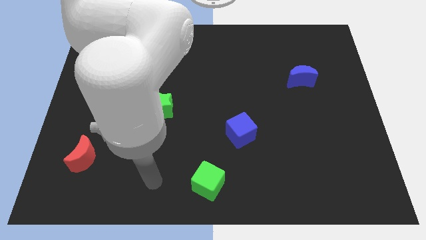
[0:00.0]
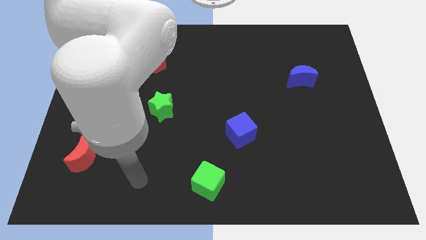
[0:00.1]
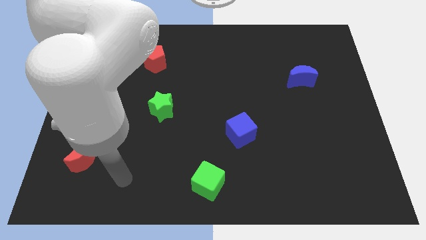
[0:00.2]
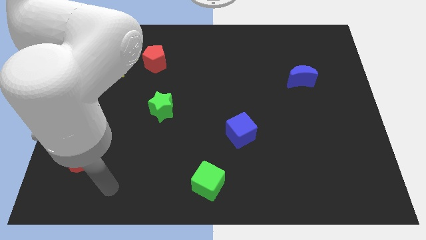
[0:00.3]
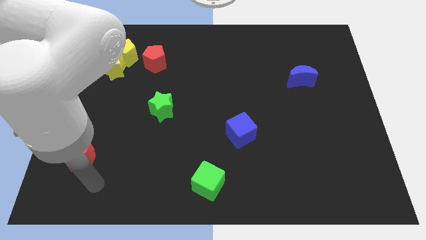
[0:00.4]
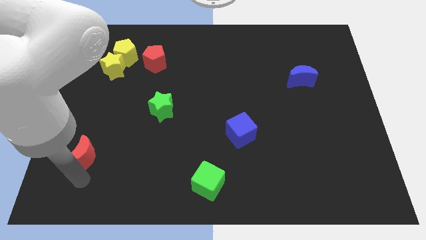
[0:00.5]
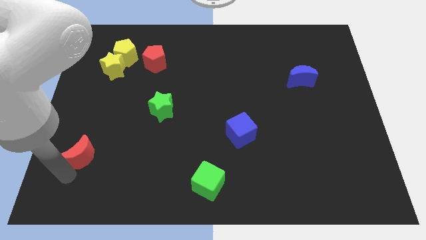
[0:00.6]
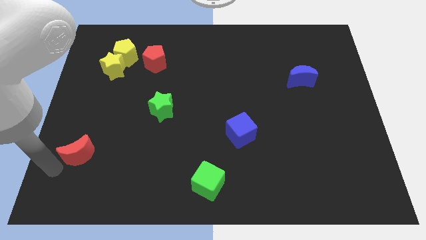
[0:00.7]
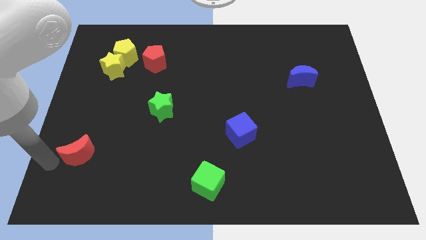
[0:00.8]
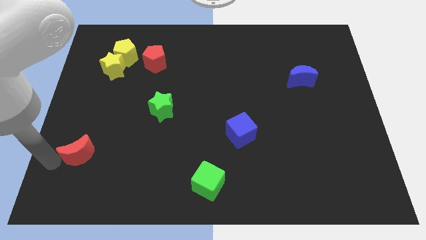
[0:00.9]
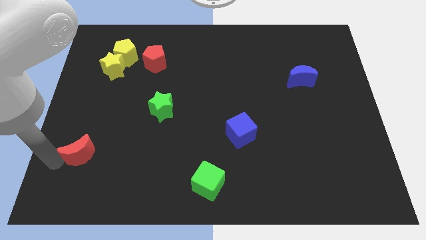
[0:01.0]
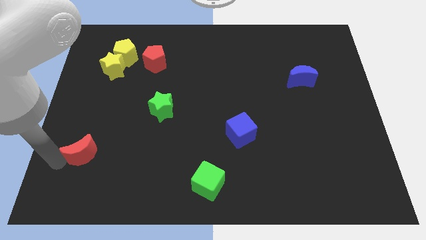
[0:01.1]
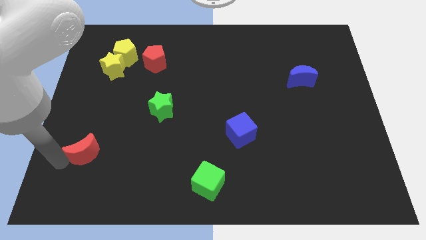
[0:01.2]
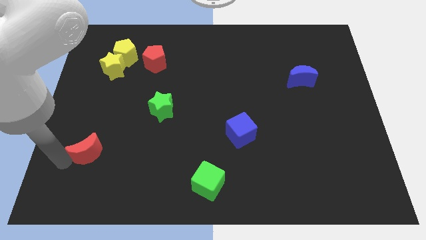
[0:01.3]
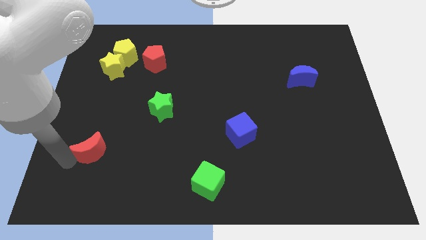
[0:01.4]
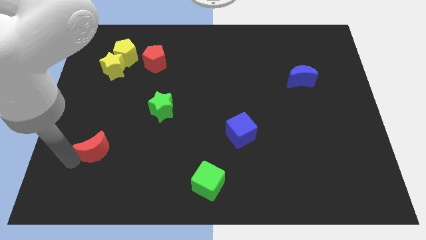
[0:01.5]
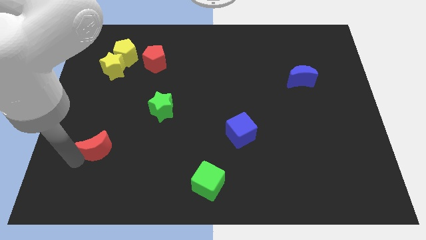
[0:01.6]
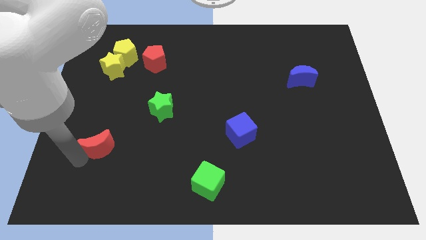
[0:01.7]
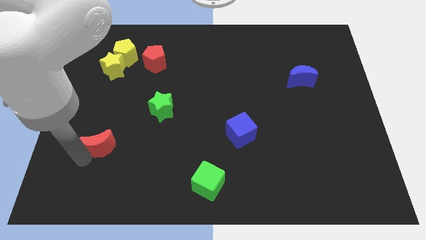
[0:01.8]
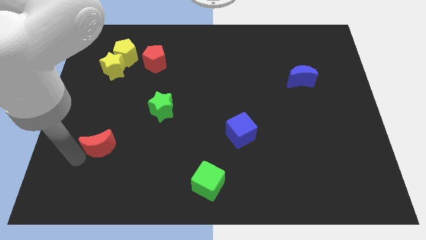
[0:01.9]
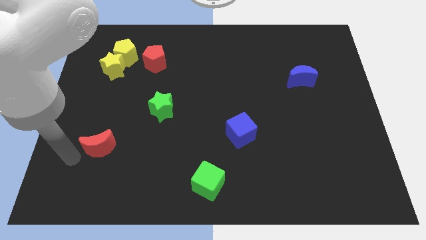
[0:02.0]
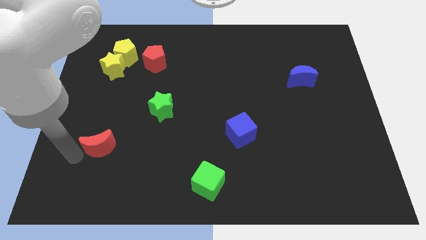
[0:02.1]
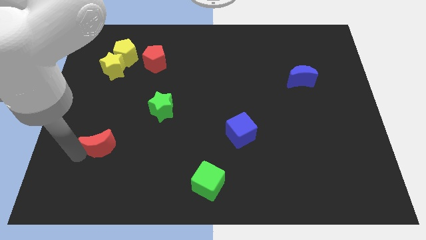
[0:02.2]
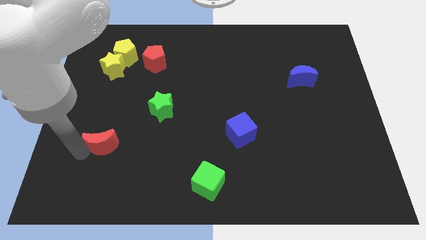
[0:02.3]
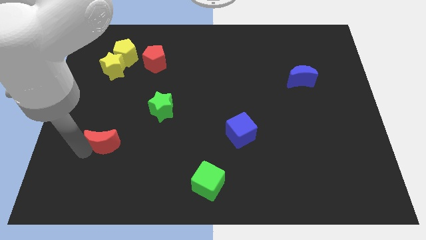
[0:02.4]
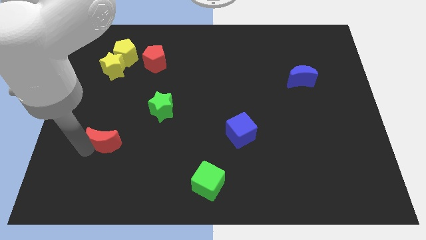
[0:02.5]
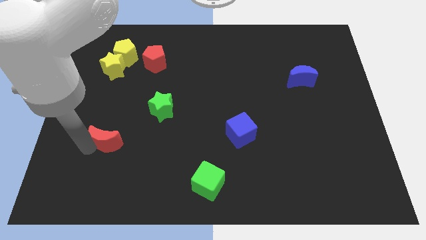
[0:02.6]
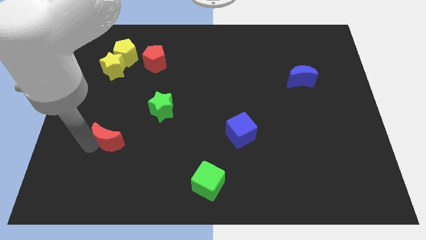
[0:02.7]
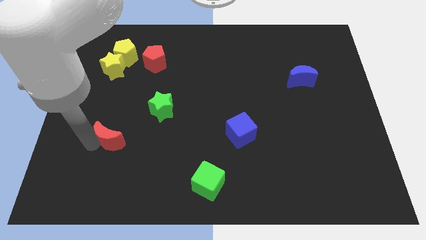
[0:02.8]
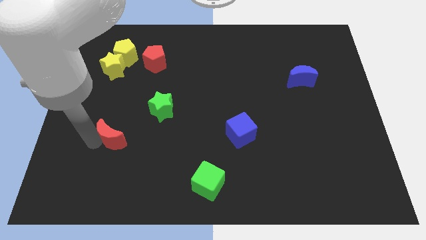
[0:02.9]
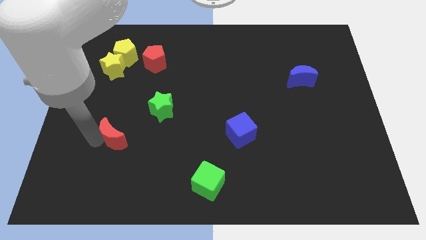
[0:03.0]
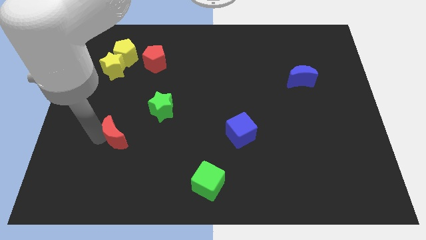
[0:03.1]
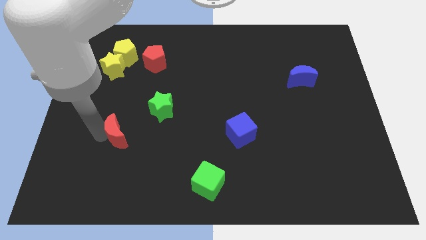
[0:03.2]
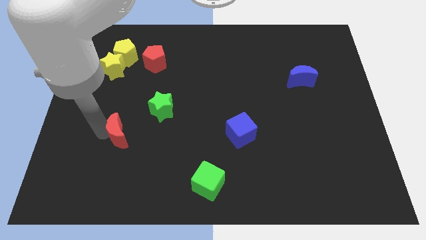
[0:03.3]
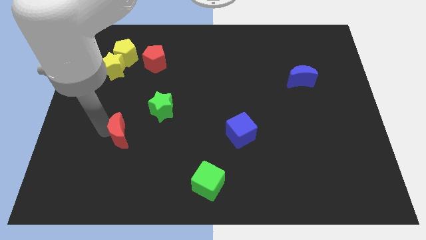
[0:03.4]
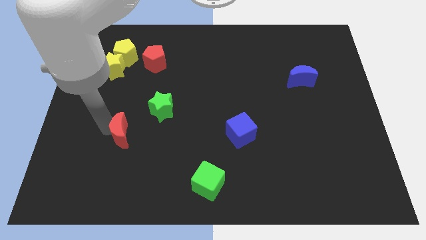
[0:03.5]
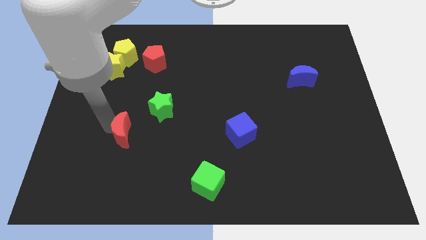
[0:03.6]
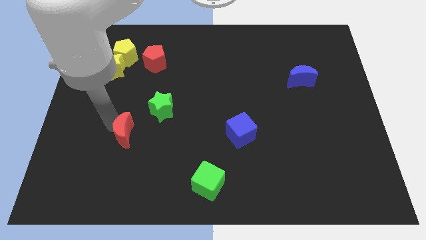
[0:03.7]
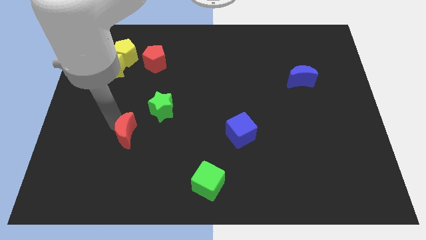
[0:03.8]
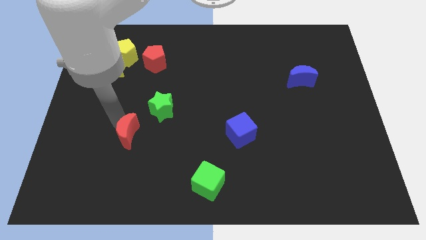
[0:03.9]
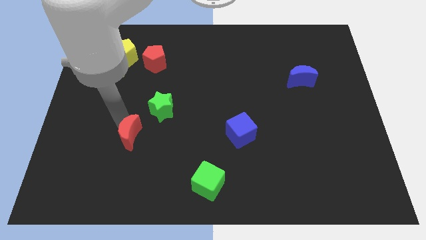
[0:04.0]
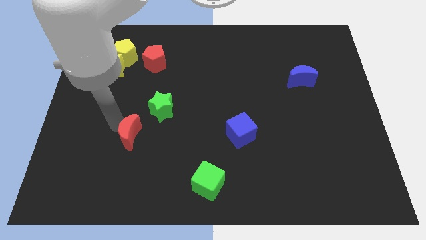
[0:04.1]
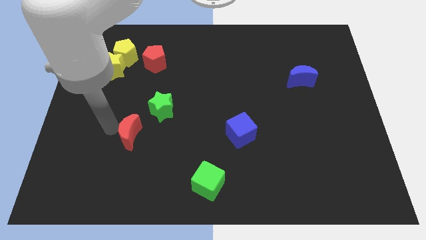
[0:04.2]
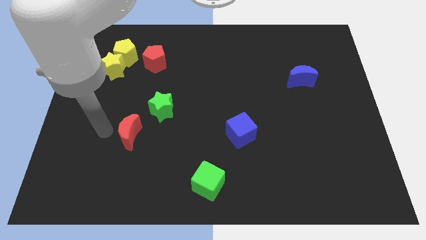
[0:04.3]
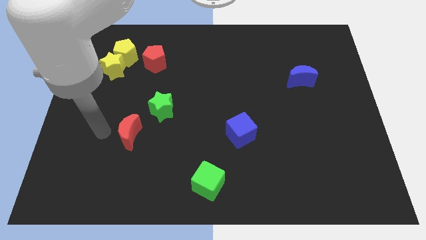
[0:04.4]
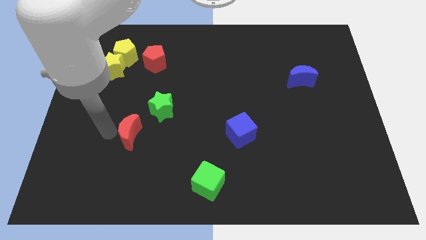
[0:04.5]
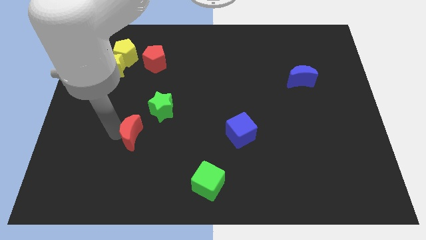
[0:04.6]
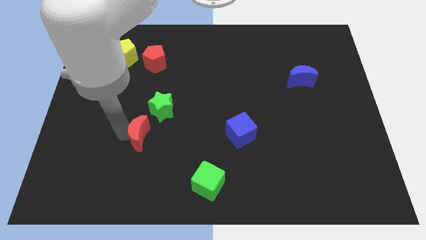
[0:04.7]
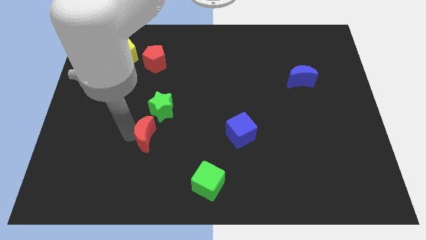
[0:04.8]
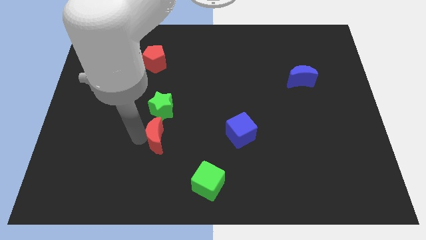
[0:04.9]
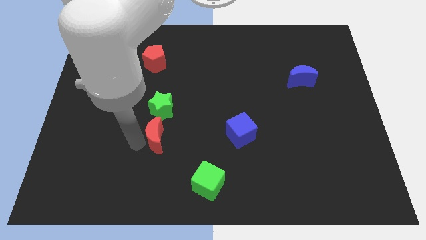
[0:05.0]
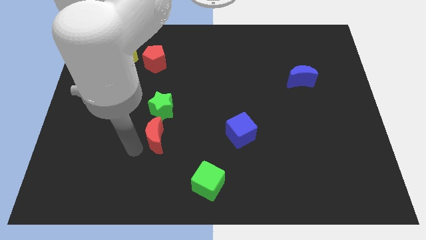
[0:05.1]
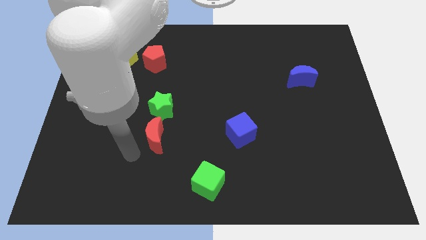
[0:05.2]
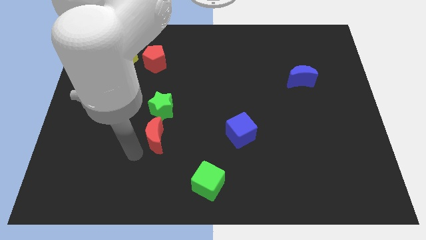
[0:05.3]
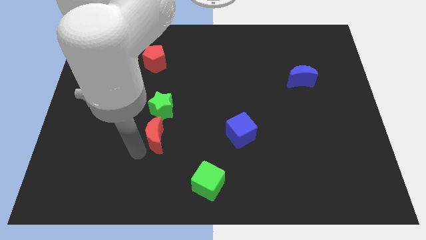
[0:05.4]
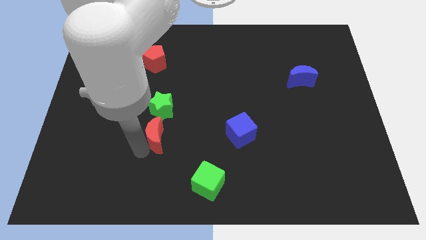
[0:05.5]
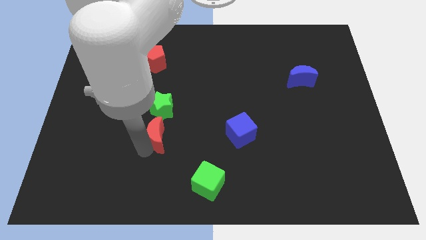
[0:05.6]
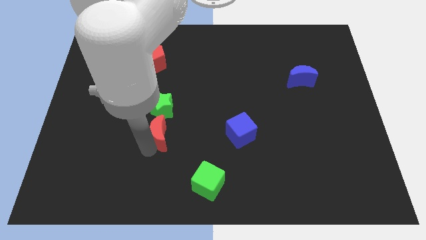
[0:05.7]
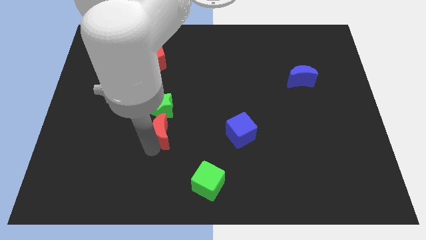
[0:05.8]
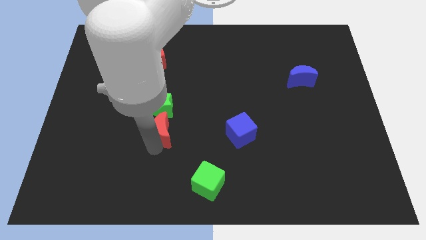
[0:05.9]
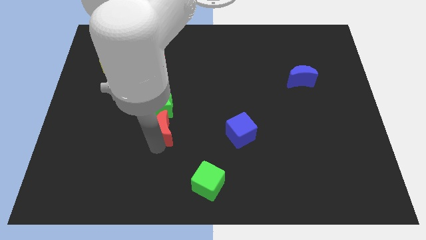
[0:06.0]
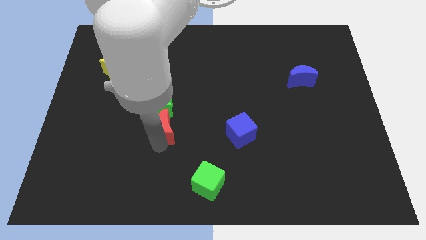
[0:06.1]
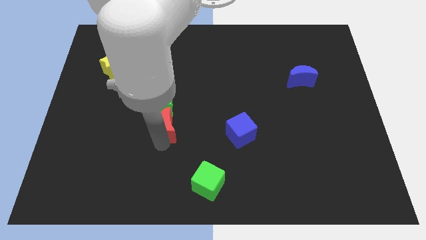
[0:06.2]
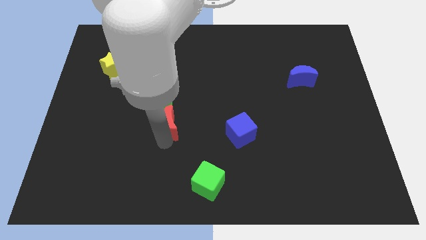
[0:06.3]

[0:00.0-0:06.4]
push the red moon to the center of the board
